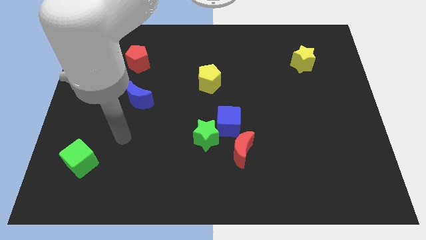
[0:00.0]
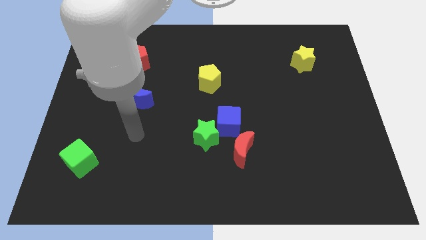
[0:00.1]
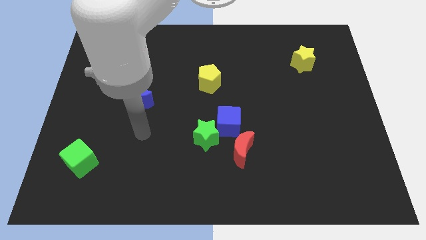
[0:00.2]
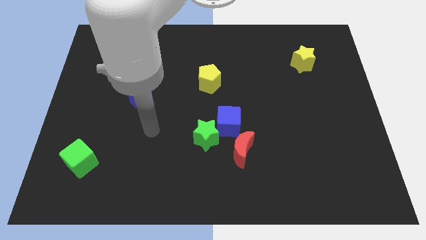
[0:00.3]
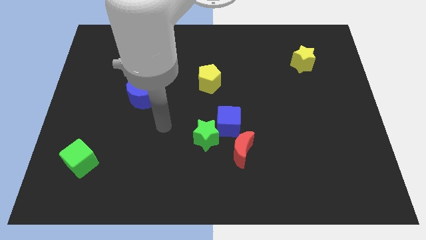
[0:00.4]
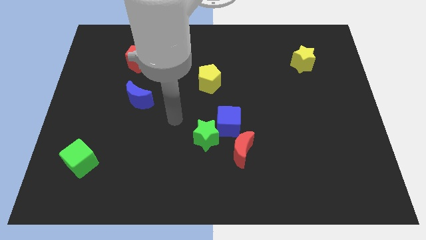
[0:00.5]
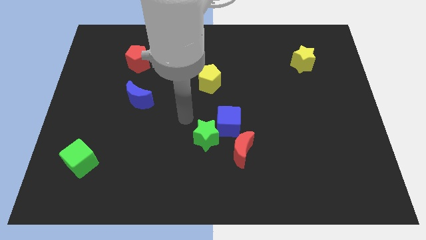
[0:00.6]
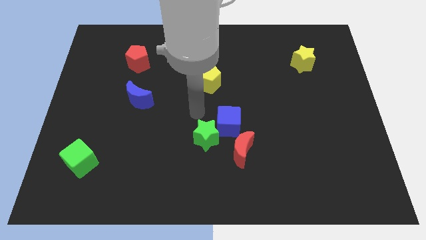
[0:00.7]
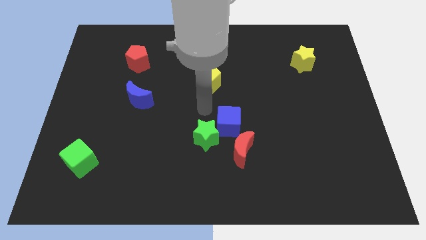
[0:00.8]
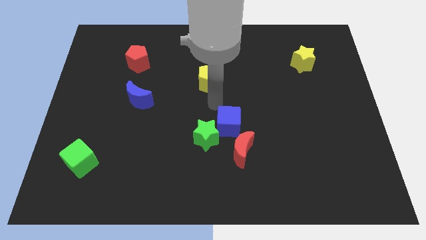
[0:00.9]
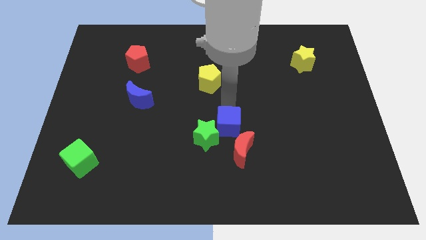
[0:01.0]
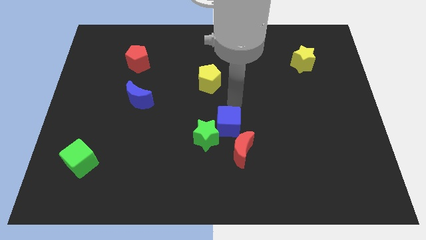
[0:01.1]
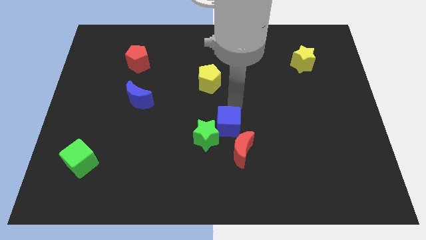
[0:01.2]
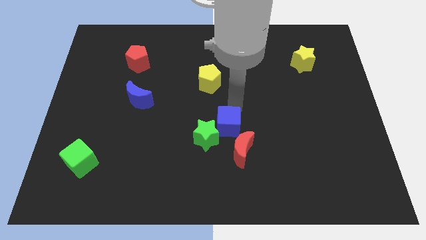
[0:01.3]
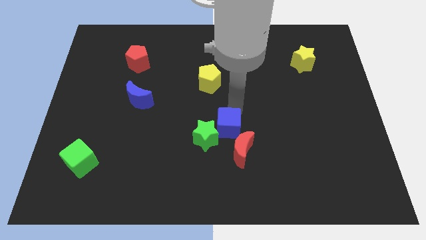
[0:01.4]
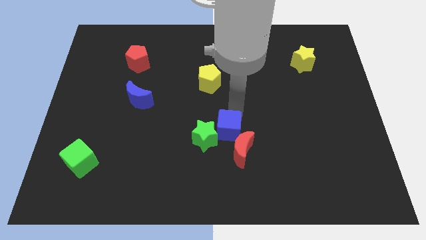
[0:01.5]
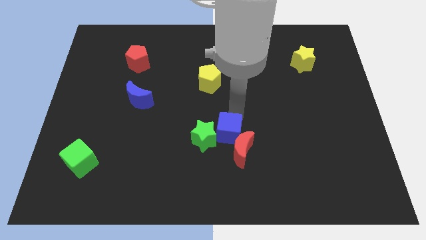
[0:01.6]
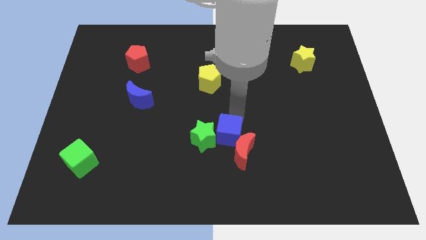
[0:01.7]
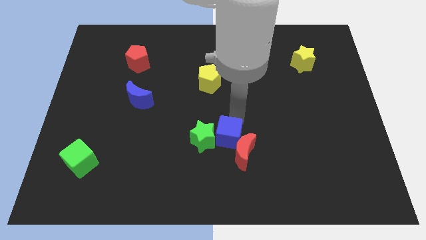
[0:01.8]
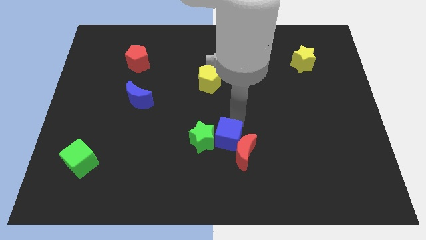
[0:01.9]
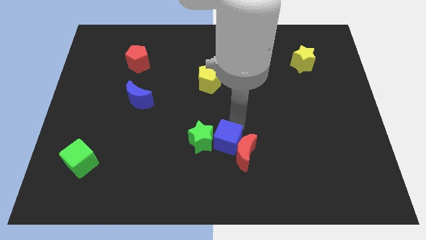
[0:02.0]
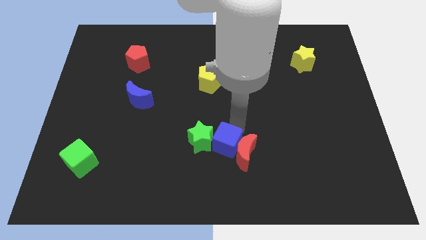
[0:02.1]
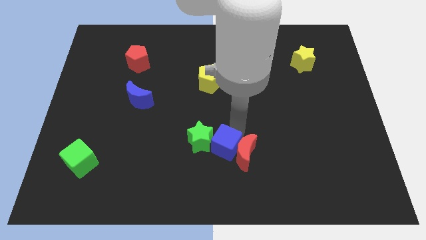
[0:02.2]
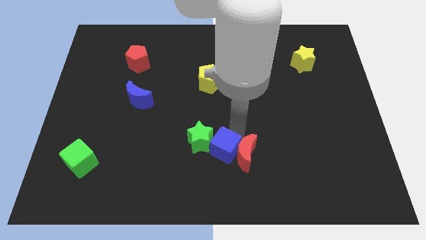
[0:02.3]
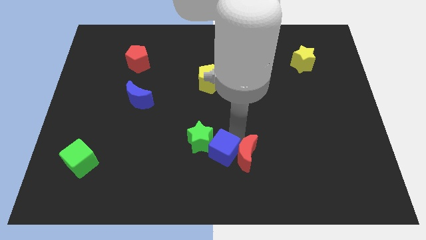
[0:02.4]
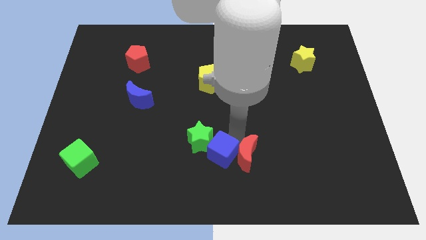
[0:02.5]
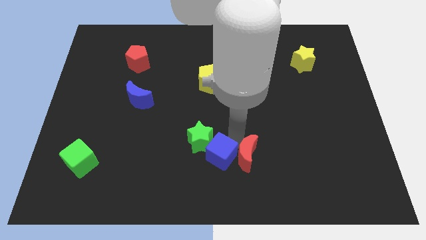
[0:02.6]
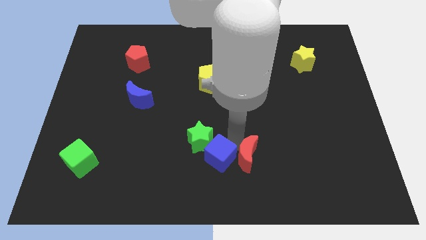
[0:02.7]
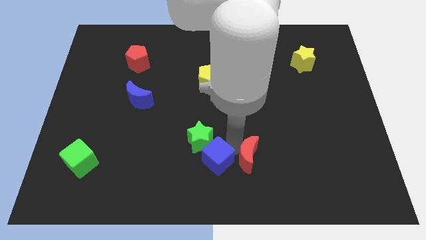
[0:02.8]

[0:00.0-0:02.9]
slide the blue cube a little bit down and left diagonally

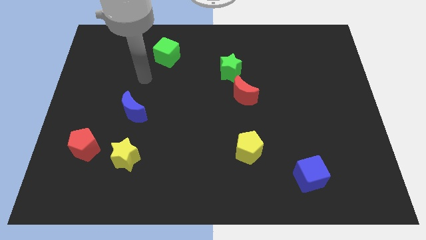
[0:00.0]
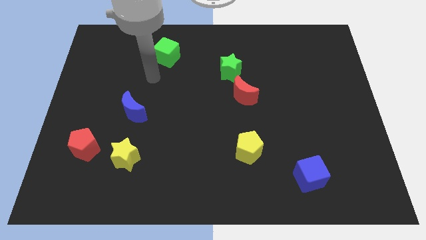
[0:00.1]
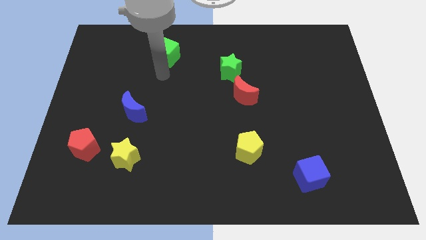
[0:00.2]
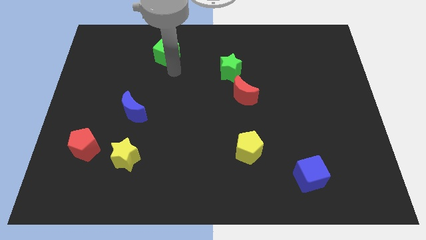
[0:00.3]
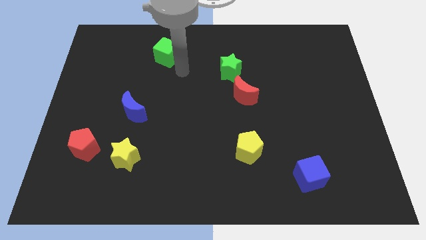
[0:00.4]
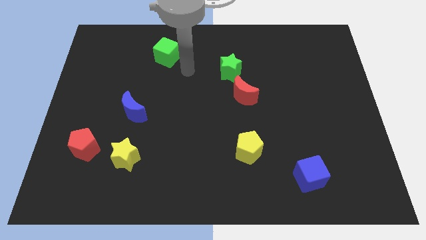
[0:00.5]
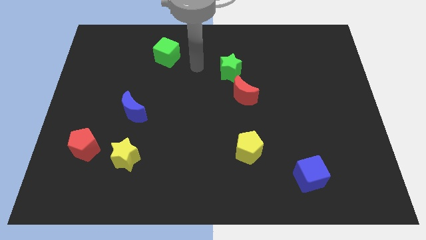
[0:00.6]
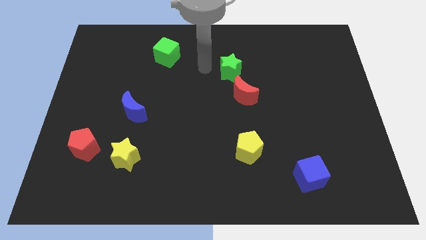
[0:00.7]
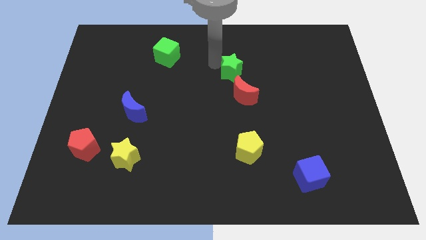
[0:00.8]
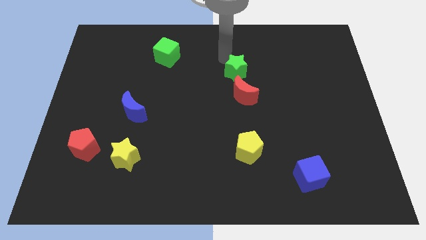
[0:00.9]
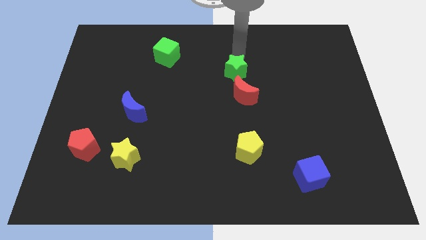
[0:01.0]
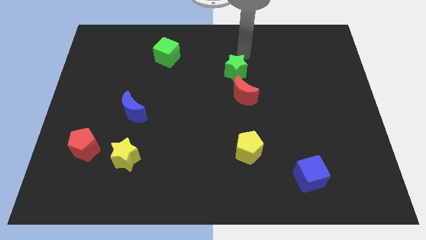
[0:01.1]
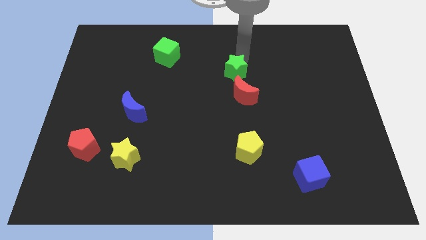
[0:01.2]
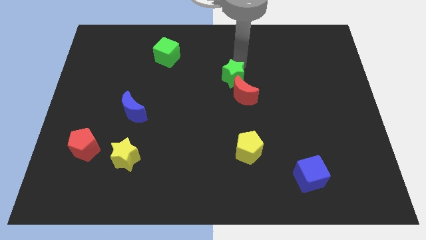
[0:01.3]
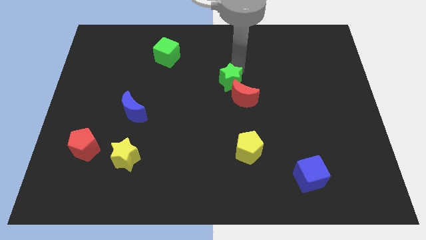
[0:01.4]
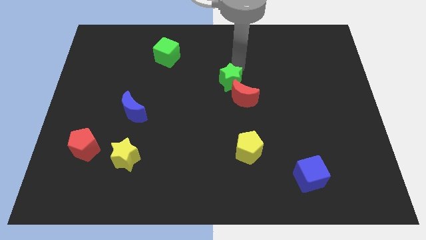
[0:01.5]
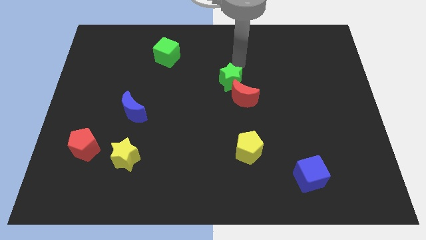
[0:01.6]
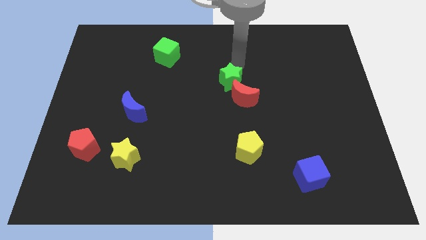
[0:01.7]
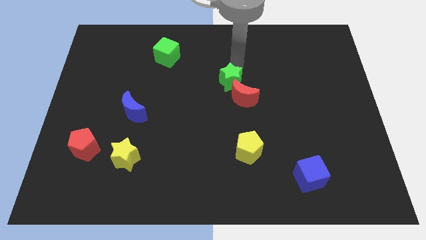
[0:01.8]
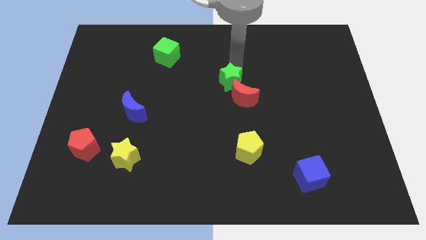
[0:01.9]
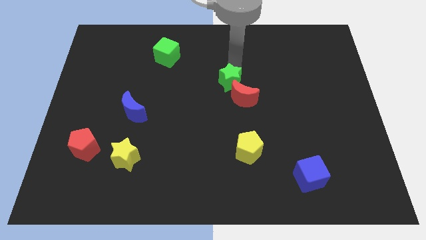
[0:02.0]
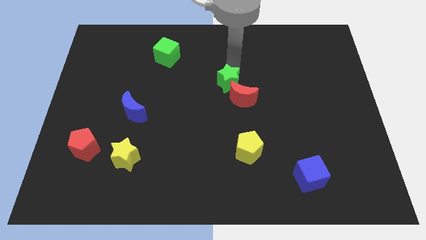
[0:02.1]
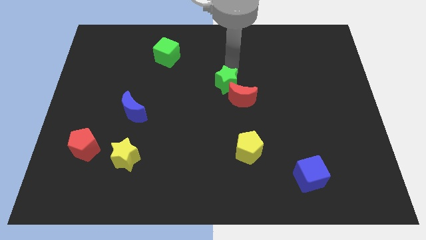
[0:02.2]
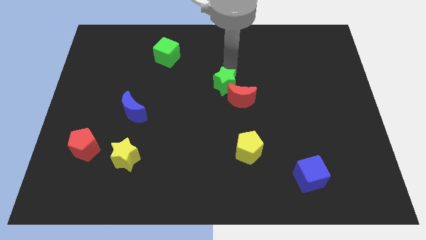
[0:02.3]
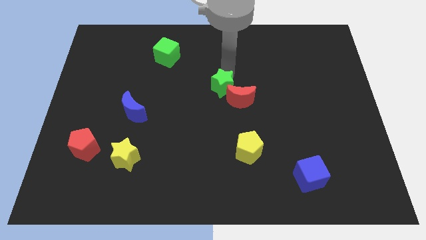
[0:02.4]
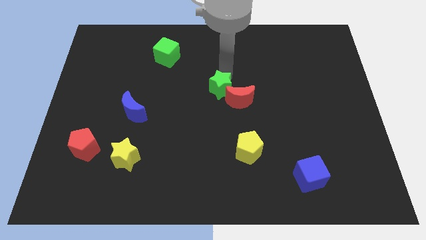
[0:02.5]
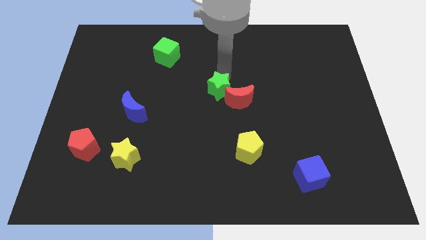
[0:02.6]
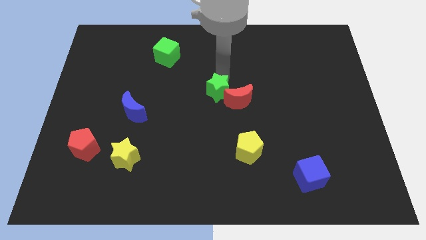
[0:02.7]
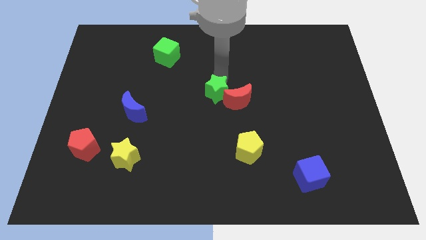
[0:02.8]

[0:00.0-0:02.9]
move the green star downwards a little bit

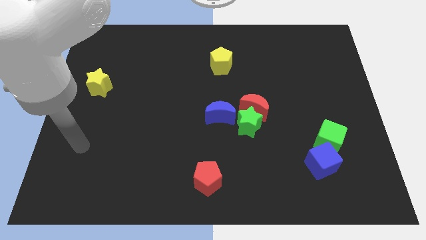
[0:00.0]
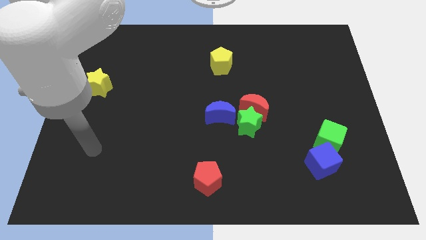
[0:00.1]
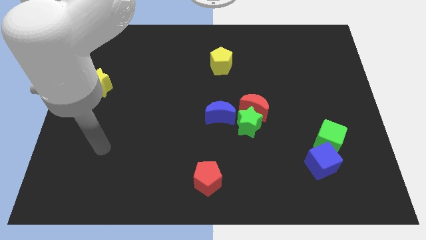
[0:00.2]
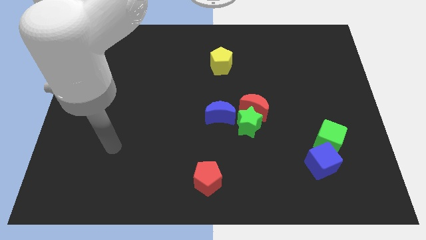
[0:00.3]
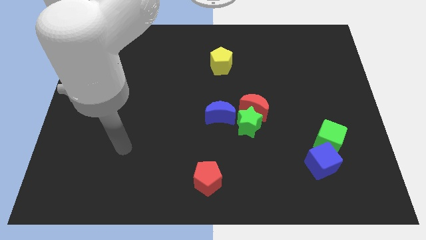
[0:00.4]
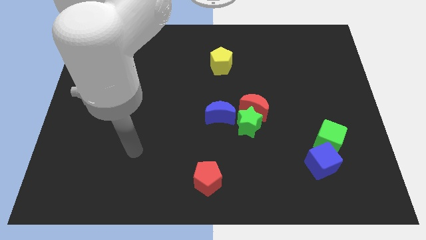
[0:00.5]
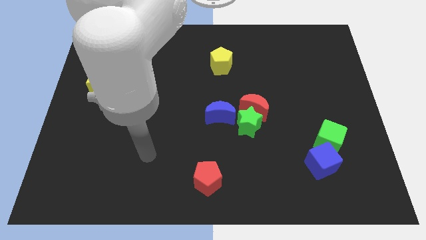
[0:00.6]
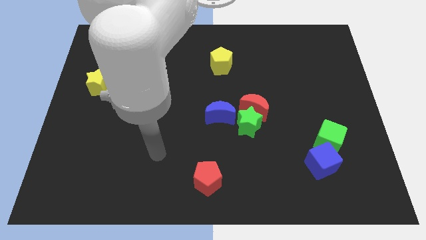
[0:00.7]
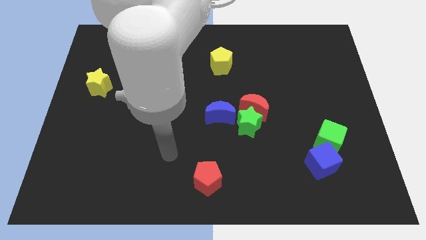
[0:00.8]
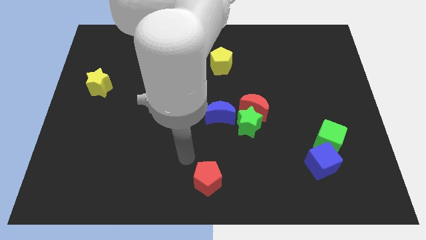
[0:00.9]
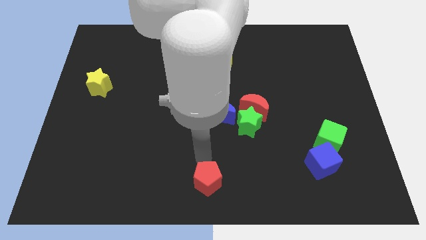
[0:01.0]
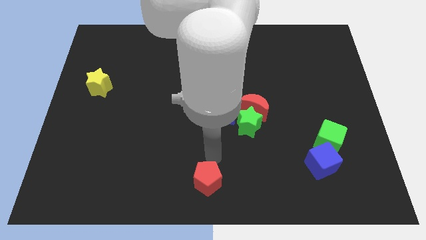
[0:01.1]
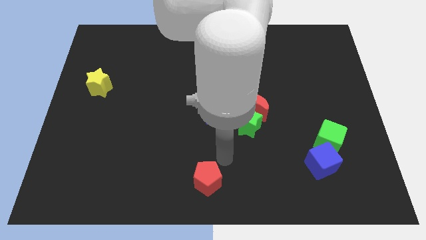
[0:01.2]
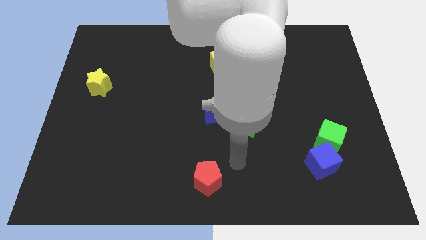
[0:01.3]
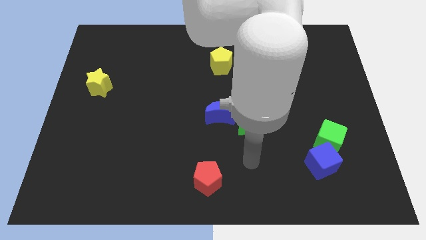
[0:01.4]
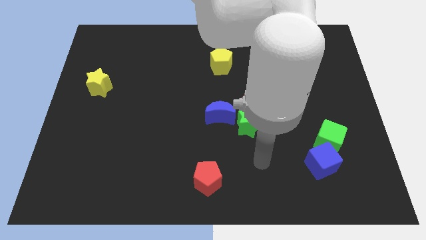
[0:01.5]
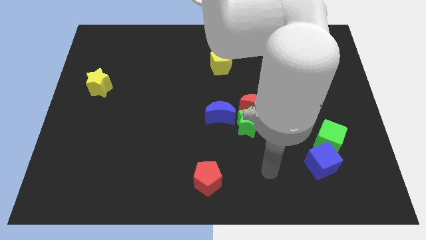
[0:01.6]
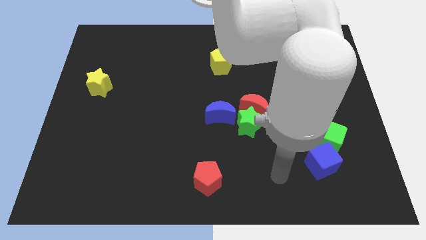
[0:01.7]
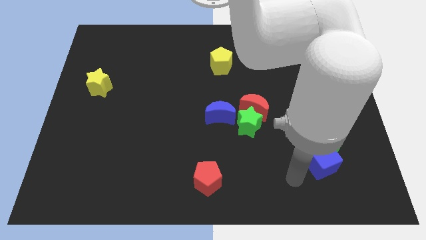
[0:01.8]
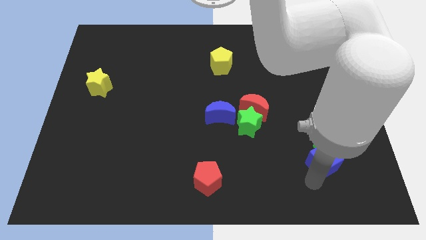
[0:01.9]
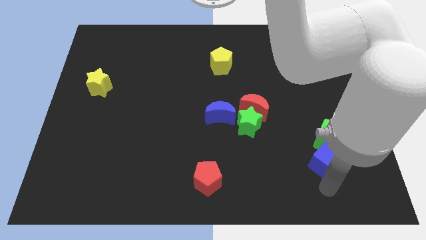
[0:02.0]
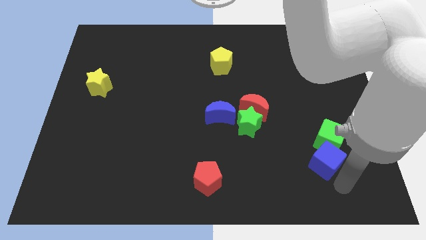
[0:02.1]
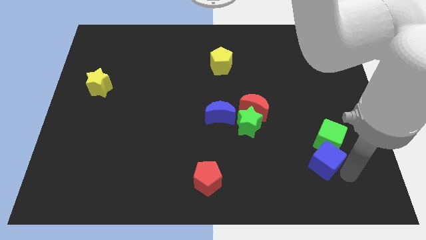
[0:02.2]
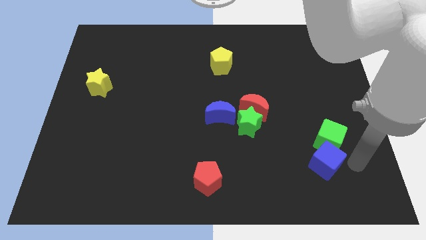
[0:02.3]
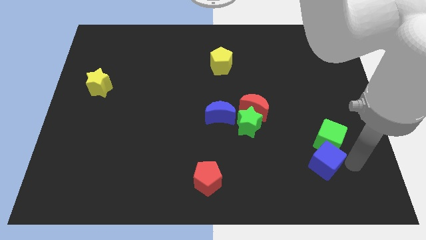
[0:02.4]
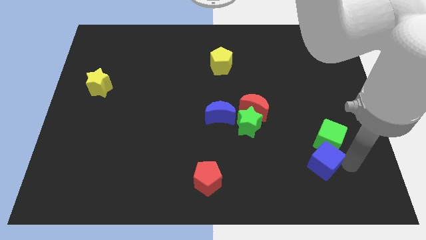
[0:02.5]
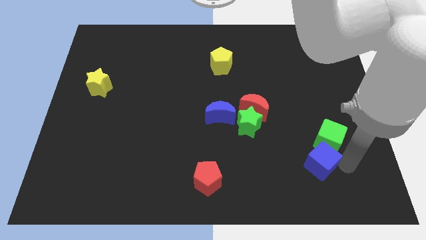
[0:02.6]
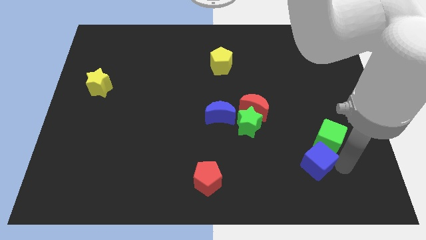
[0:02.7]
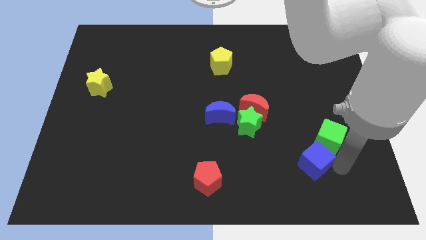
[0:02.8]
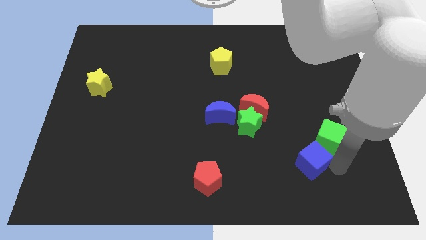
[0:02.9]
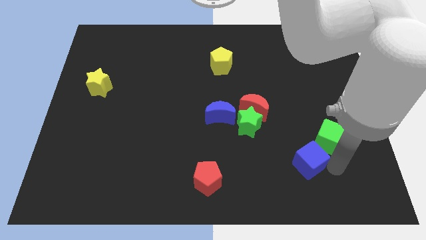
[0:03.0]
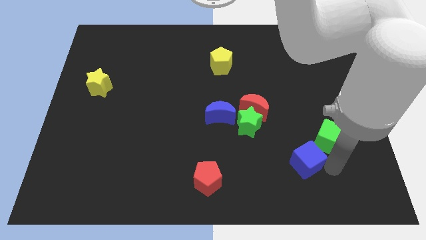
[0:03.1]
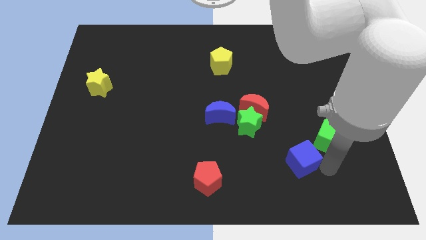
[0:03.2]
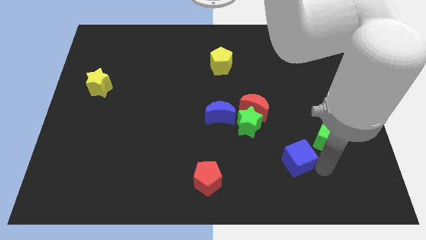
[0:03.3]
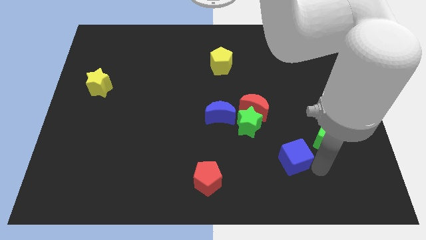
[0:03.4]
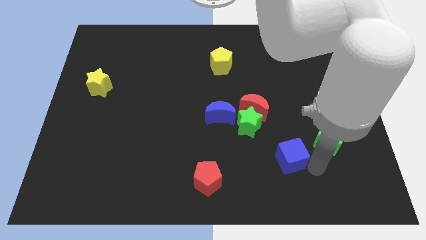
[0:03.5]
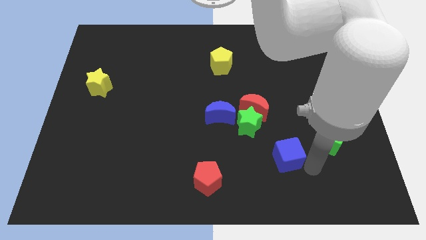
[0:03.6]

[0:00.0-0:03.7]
slightly push the blue cube to the left
